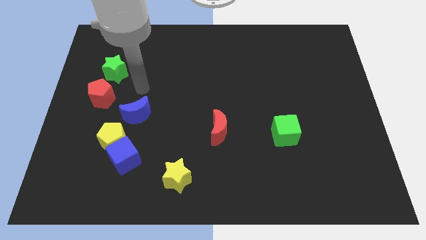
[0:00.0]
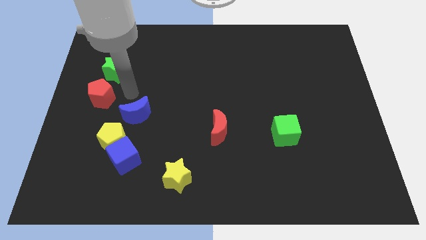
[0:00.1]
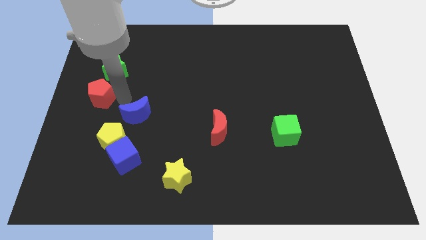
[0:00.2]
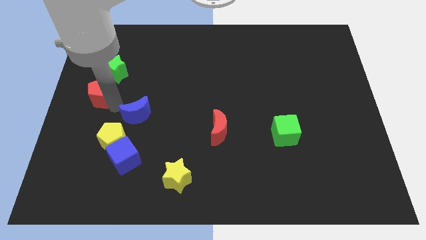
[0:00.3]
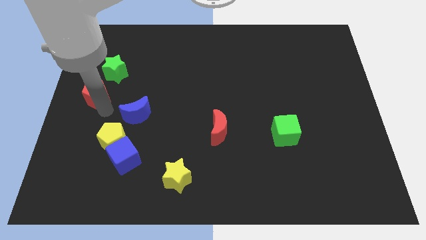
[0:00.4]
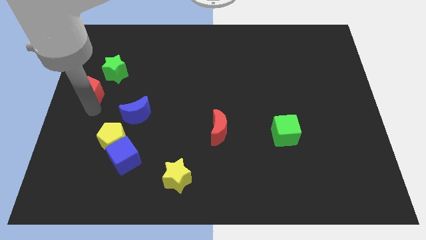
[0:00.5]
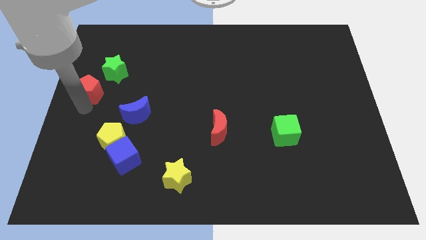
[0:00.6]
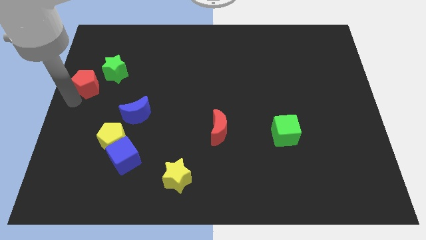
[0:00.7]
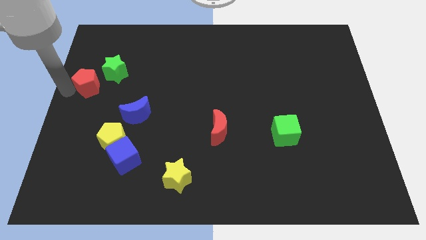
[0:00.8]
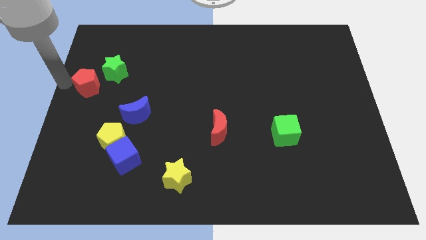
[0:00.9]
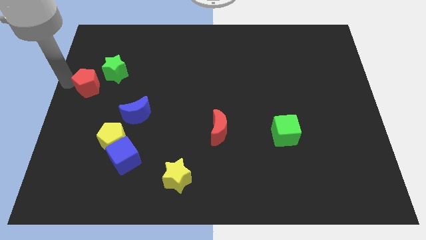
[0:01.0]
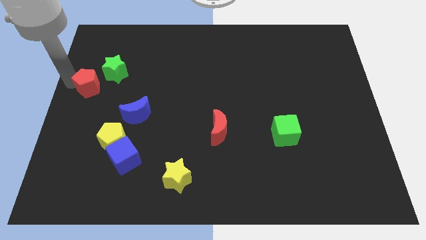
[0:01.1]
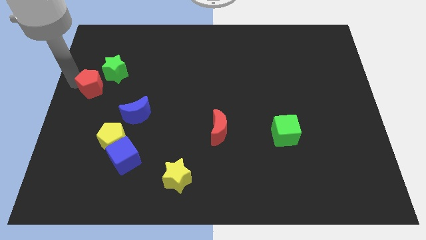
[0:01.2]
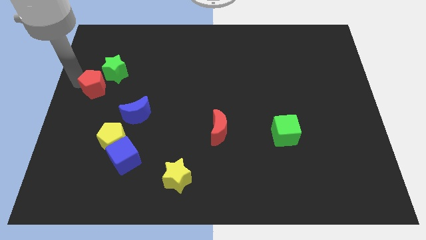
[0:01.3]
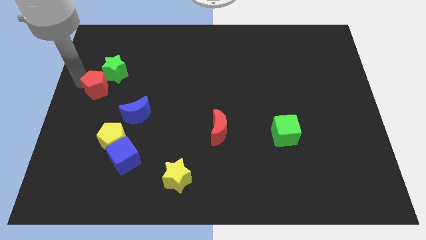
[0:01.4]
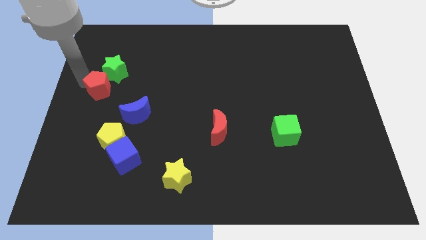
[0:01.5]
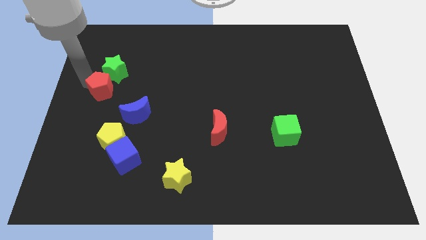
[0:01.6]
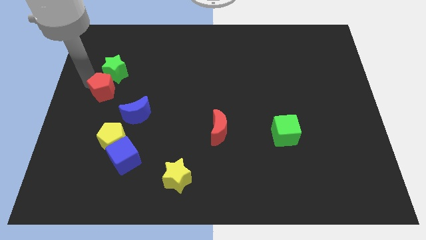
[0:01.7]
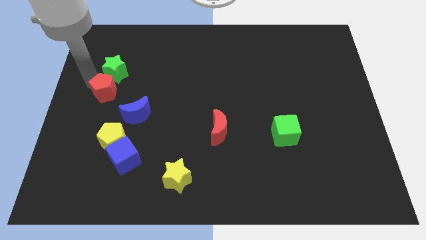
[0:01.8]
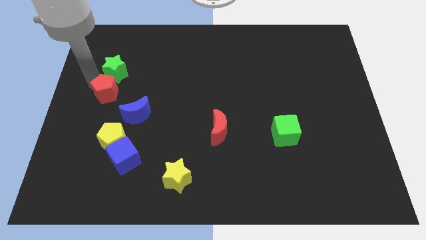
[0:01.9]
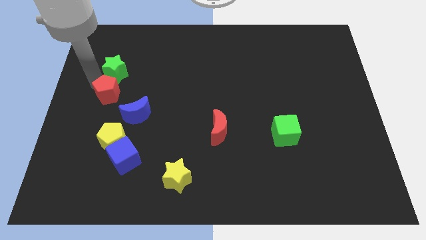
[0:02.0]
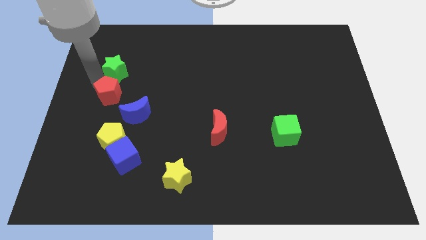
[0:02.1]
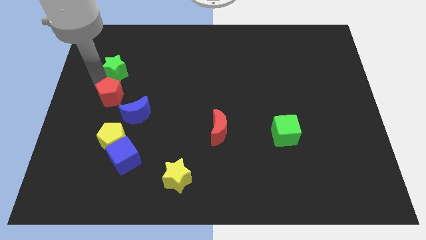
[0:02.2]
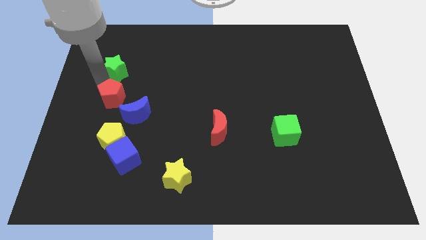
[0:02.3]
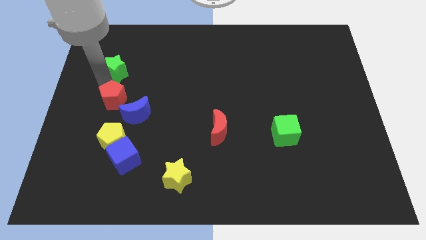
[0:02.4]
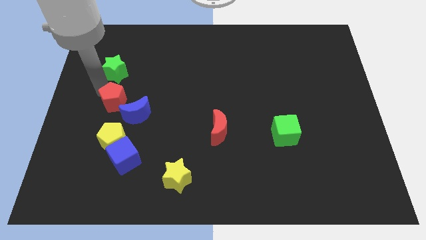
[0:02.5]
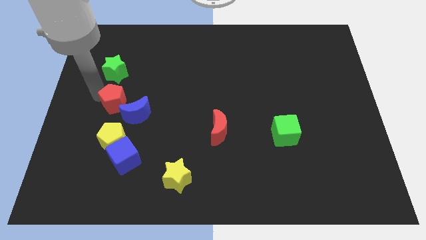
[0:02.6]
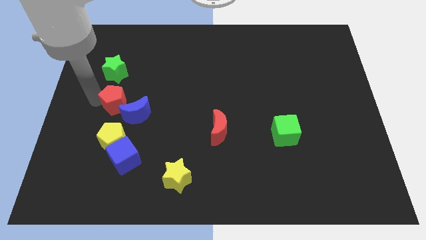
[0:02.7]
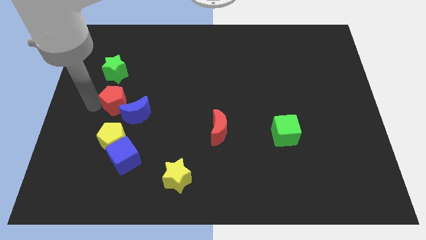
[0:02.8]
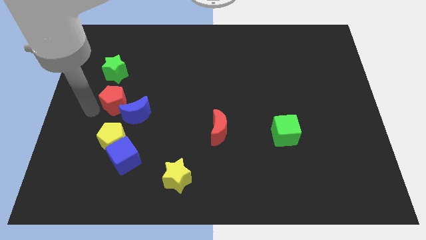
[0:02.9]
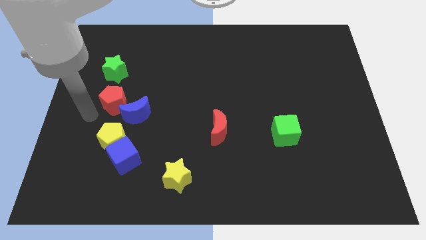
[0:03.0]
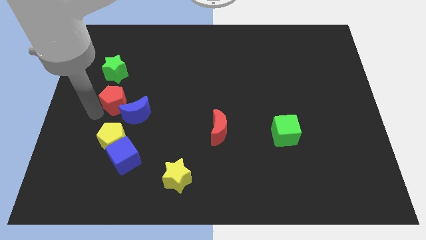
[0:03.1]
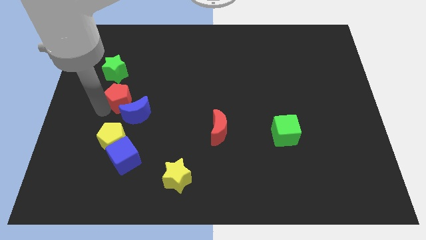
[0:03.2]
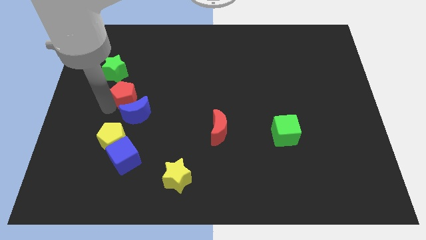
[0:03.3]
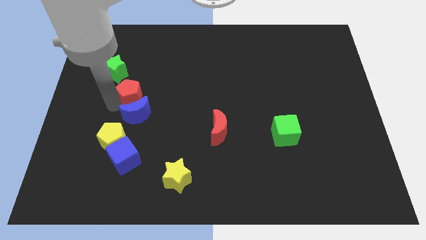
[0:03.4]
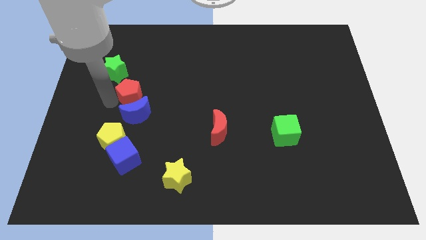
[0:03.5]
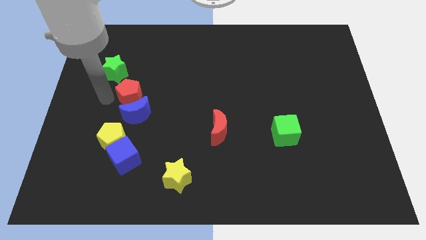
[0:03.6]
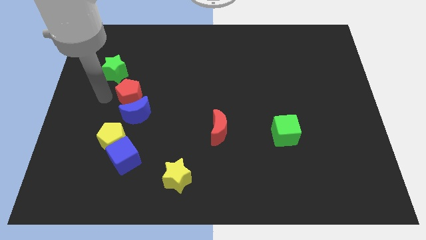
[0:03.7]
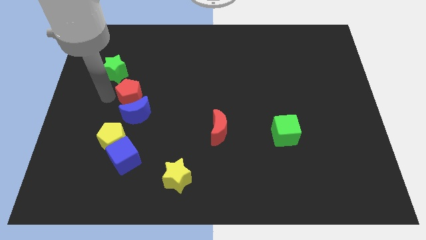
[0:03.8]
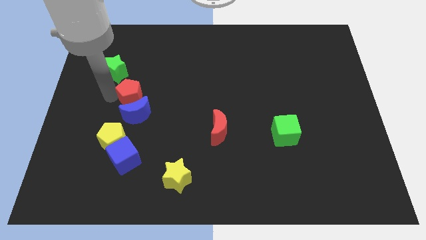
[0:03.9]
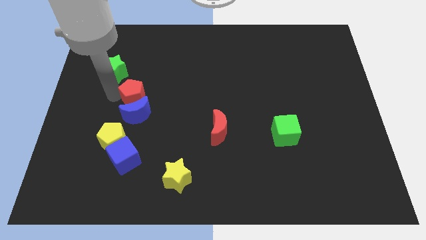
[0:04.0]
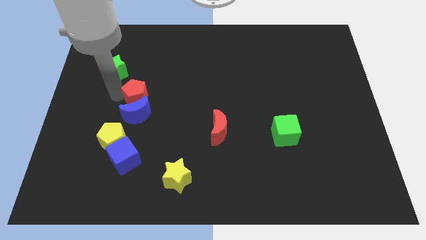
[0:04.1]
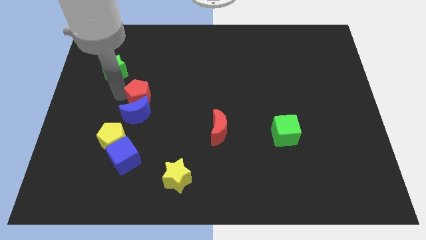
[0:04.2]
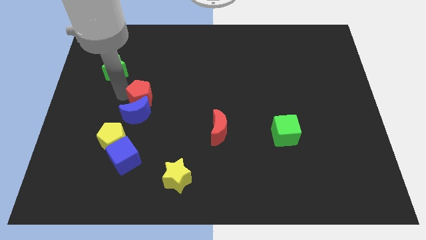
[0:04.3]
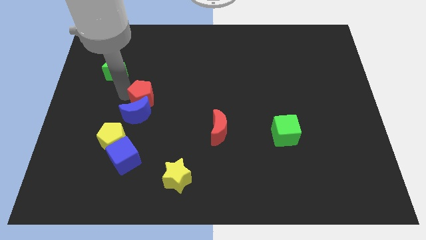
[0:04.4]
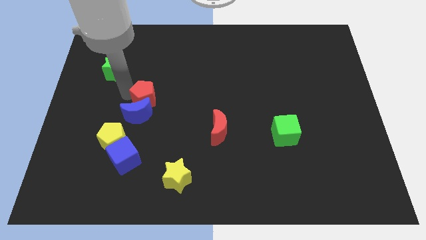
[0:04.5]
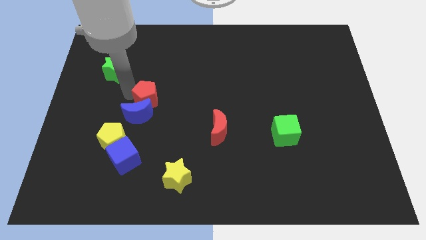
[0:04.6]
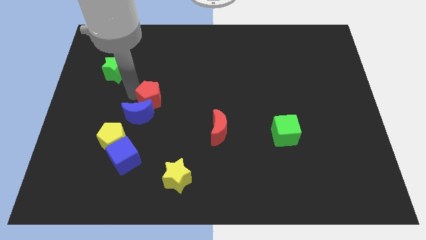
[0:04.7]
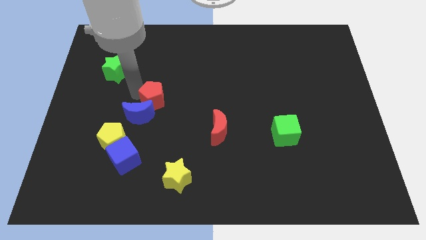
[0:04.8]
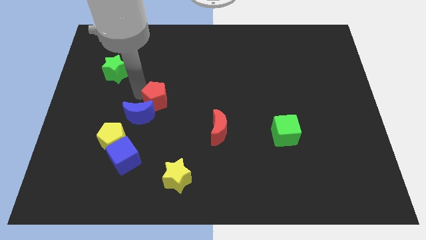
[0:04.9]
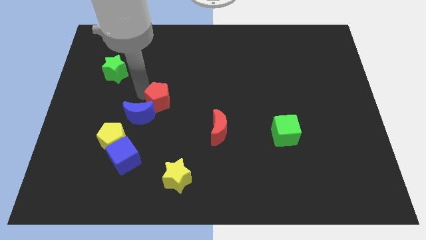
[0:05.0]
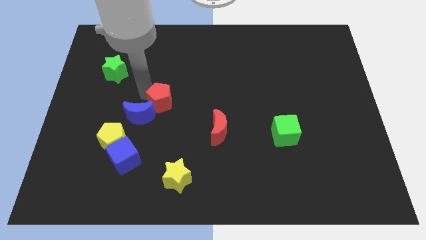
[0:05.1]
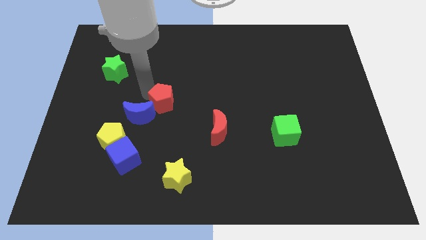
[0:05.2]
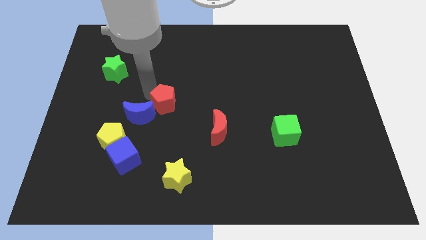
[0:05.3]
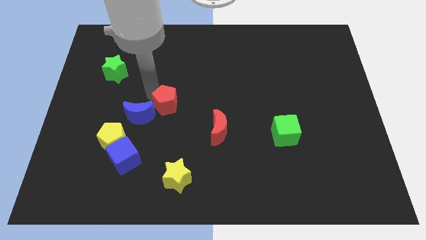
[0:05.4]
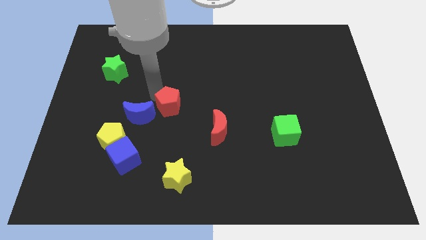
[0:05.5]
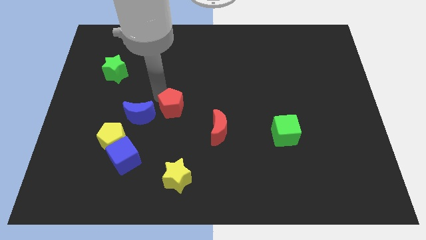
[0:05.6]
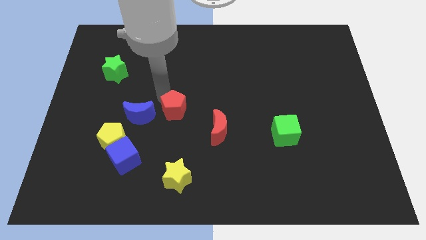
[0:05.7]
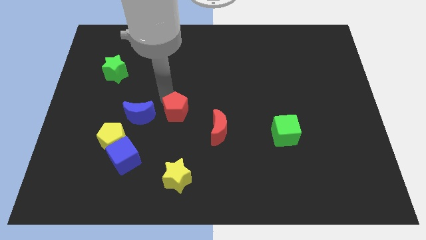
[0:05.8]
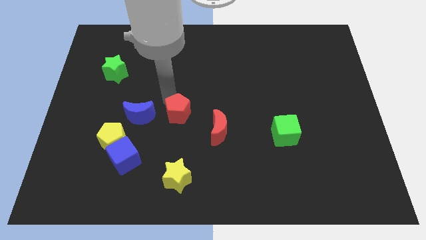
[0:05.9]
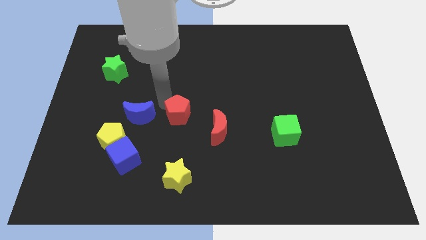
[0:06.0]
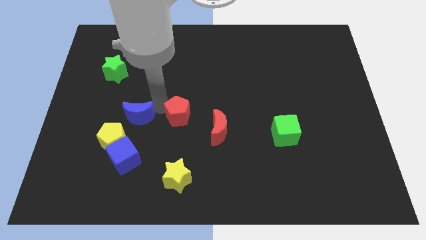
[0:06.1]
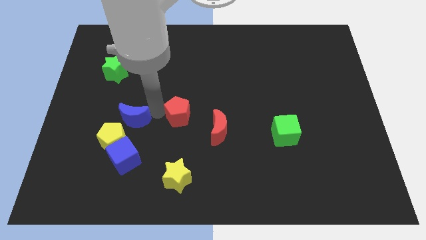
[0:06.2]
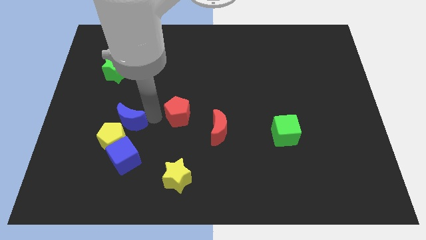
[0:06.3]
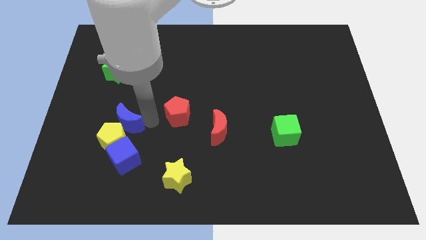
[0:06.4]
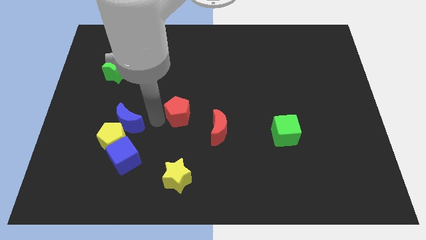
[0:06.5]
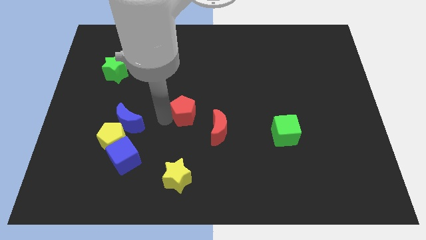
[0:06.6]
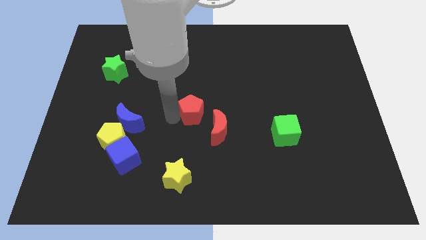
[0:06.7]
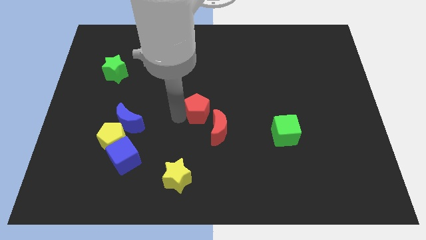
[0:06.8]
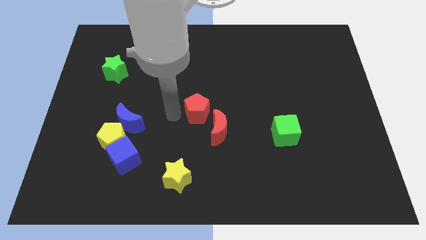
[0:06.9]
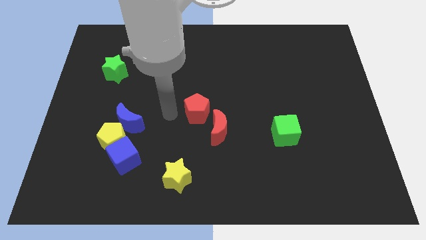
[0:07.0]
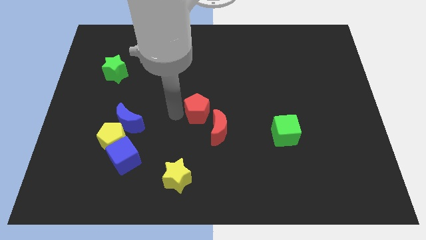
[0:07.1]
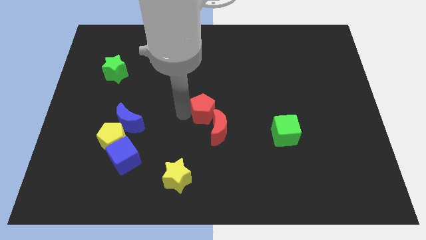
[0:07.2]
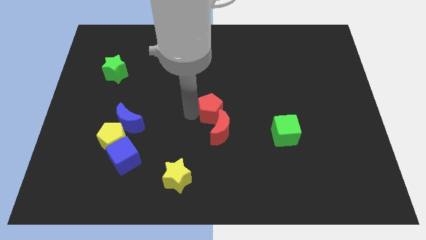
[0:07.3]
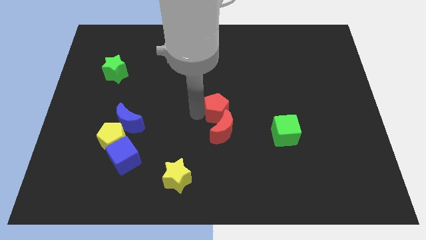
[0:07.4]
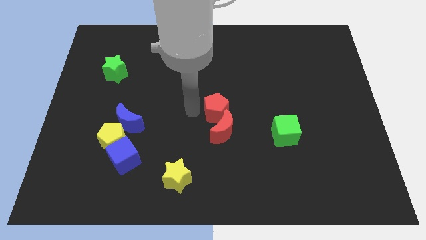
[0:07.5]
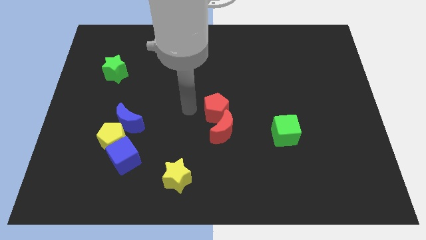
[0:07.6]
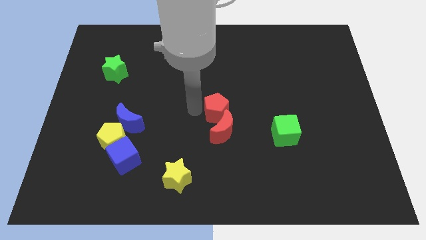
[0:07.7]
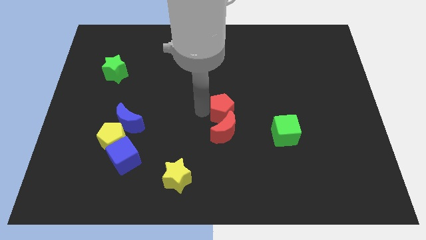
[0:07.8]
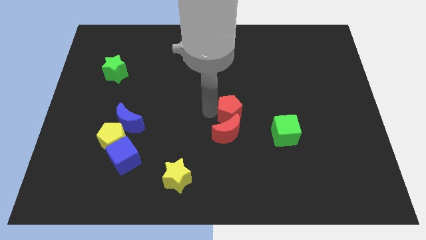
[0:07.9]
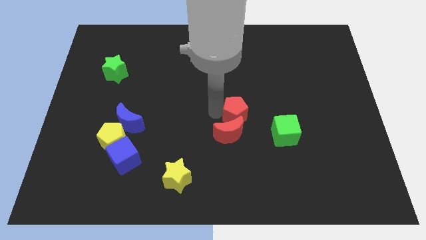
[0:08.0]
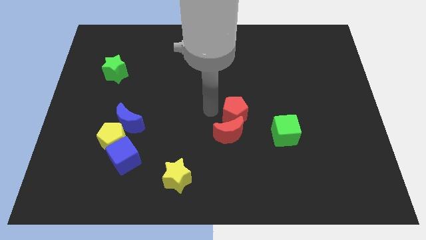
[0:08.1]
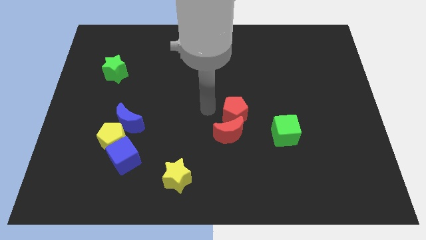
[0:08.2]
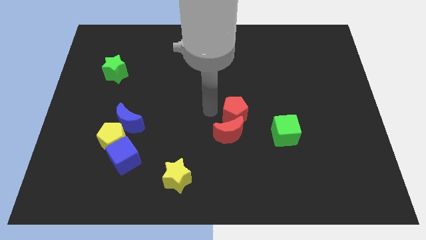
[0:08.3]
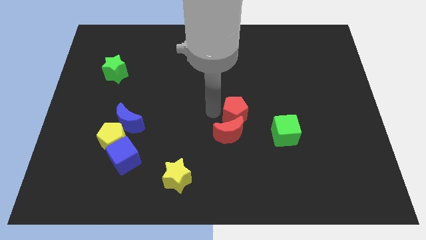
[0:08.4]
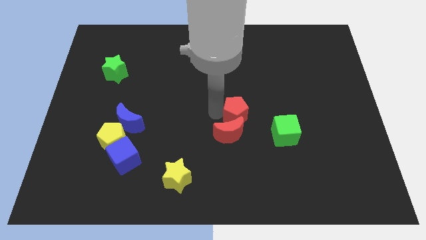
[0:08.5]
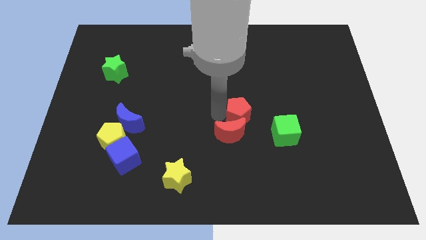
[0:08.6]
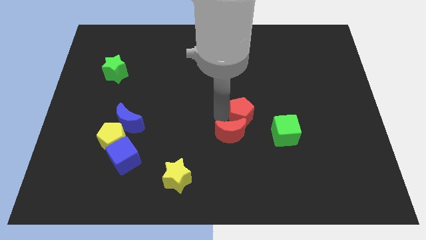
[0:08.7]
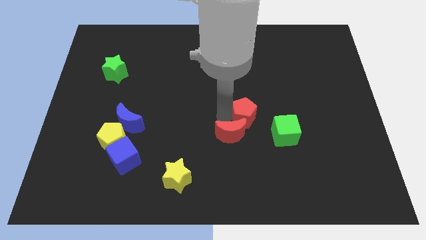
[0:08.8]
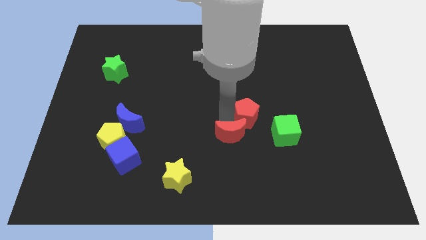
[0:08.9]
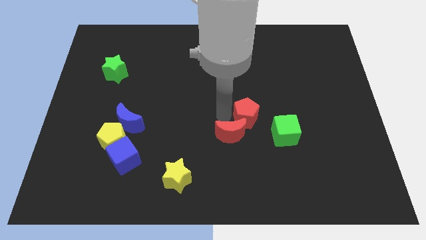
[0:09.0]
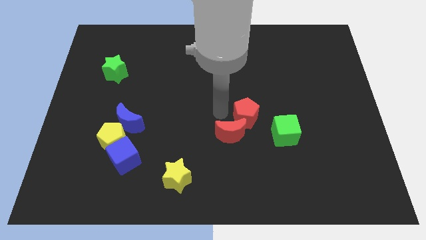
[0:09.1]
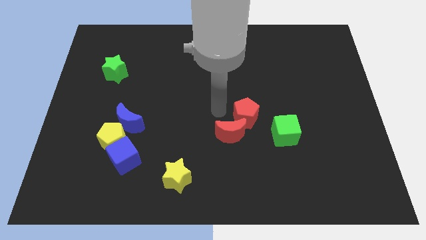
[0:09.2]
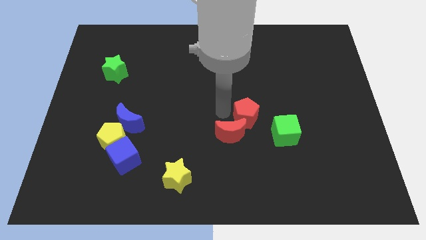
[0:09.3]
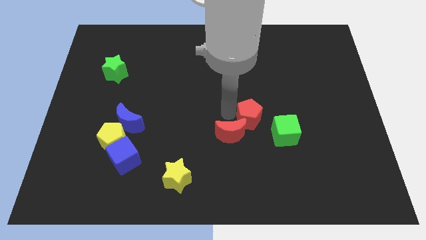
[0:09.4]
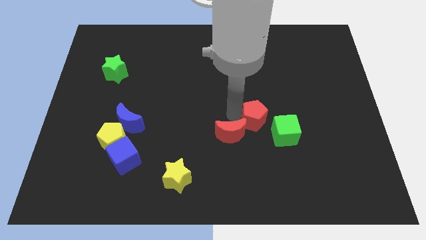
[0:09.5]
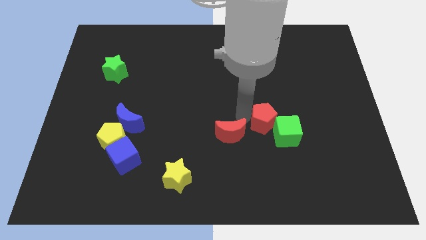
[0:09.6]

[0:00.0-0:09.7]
push the red pentagon next to the green cube
